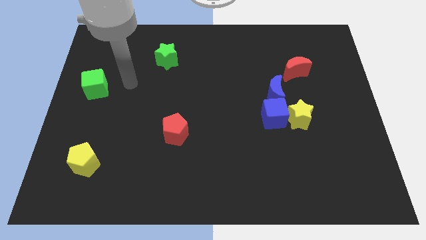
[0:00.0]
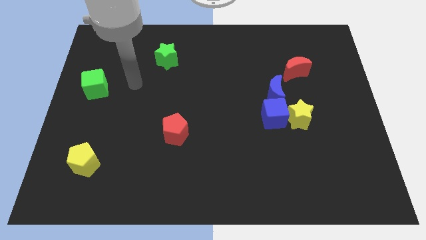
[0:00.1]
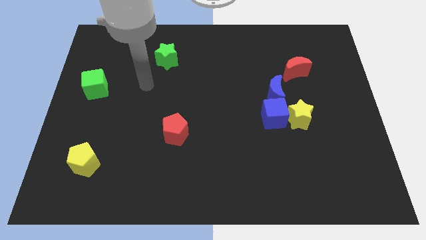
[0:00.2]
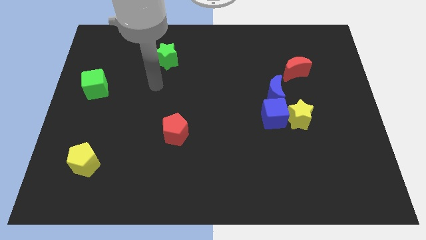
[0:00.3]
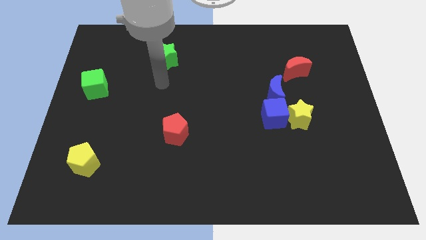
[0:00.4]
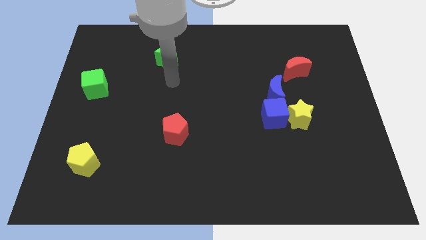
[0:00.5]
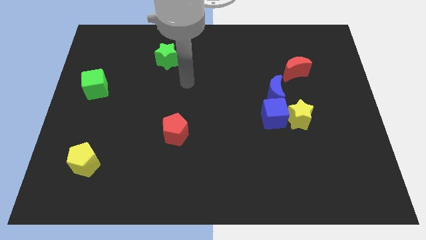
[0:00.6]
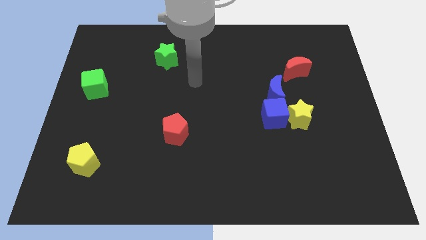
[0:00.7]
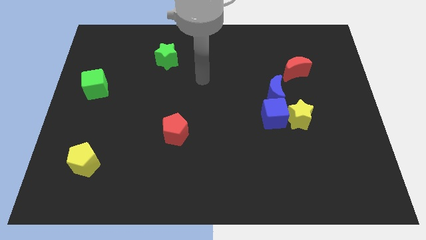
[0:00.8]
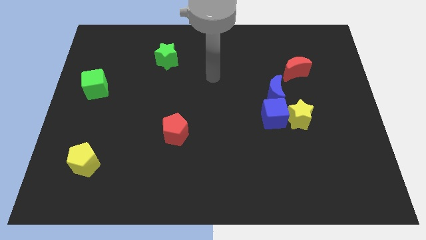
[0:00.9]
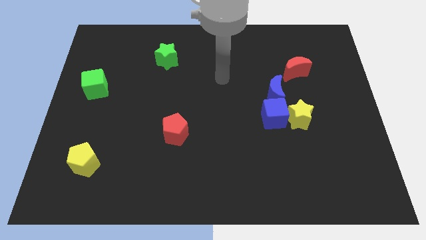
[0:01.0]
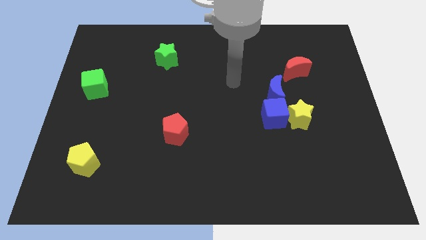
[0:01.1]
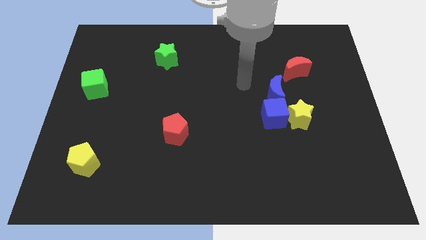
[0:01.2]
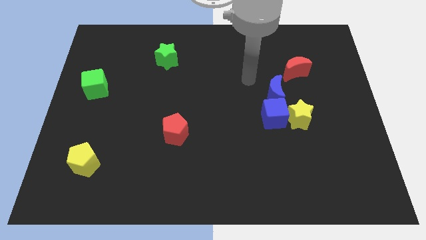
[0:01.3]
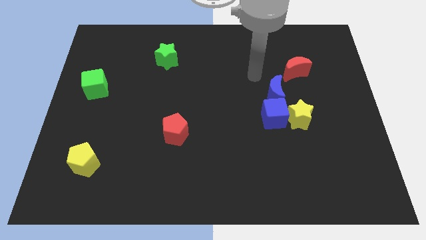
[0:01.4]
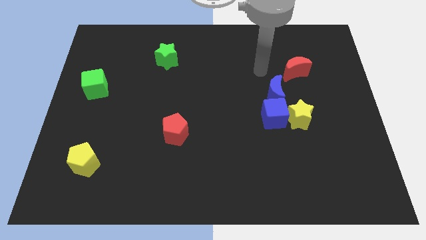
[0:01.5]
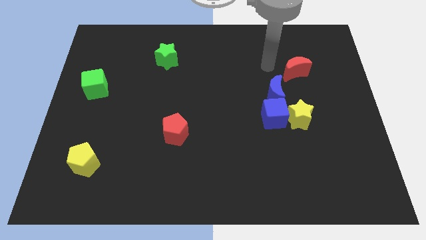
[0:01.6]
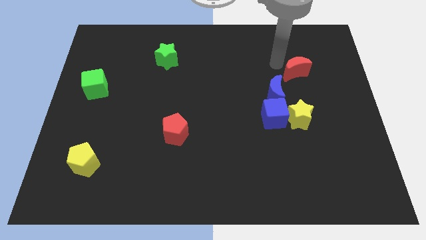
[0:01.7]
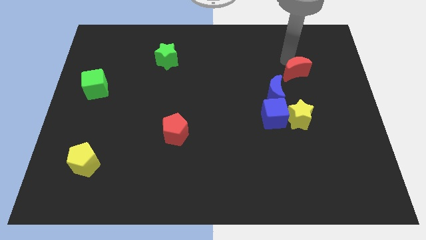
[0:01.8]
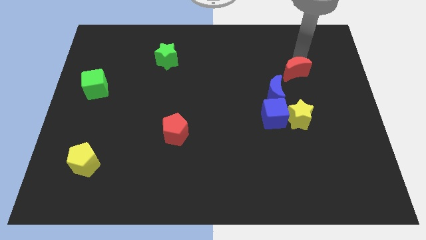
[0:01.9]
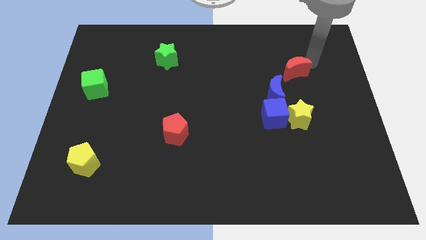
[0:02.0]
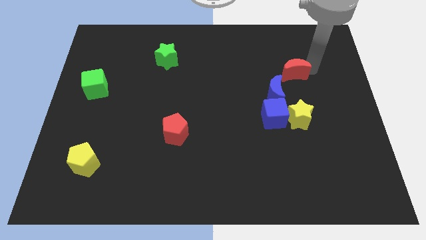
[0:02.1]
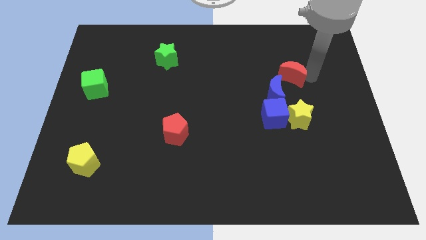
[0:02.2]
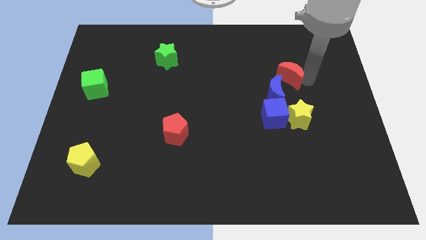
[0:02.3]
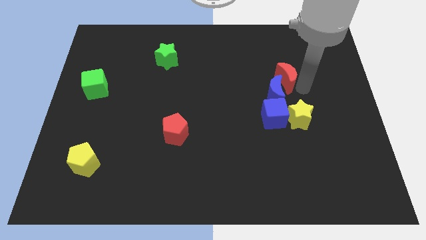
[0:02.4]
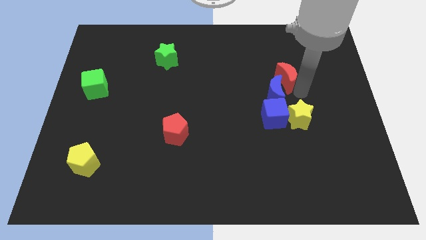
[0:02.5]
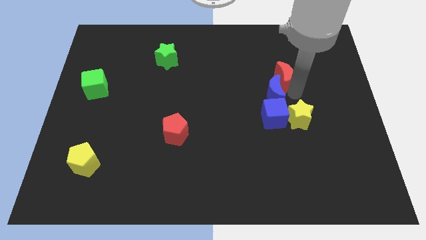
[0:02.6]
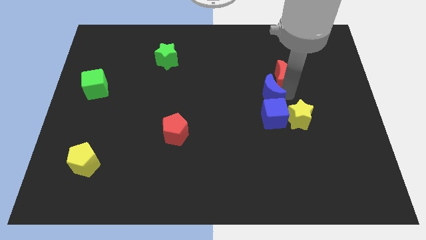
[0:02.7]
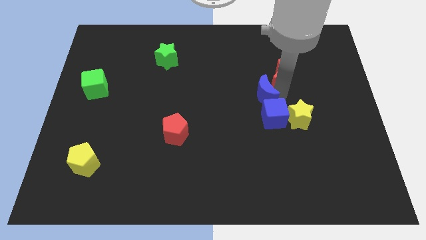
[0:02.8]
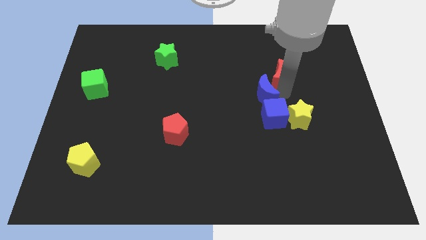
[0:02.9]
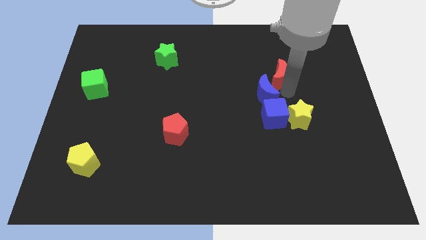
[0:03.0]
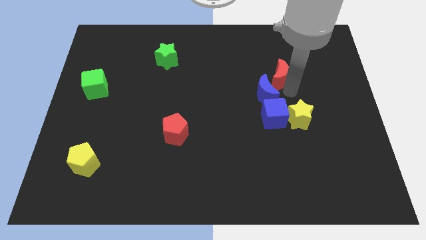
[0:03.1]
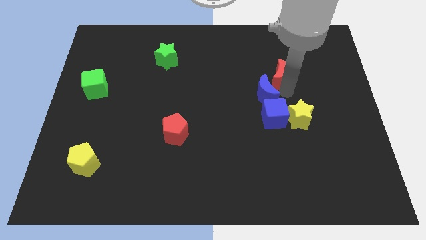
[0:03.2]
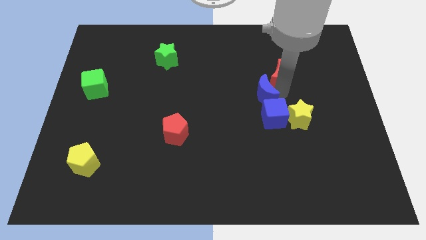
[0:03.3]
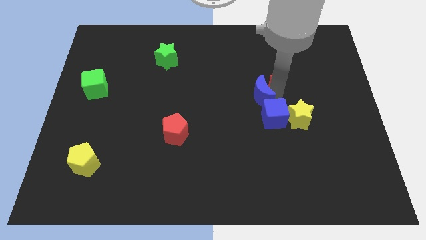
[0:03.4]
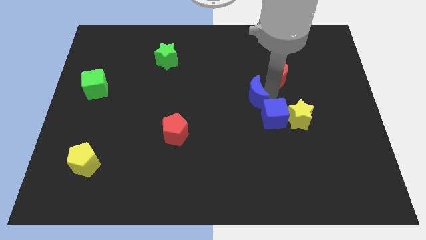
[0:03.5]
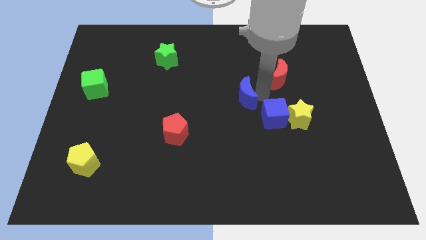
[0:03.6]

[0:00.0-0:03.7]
slightly slide the blue moon to the left

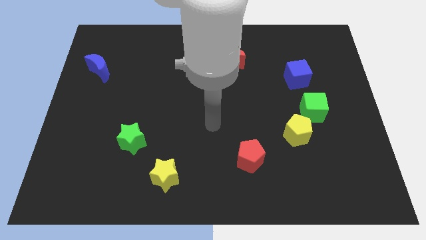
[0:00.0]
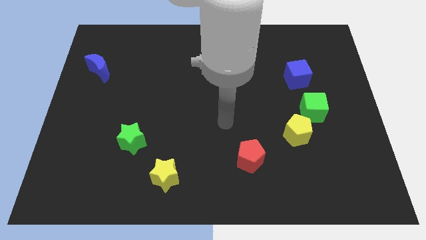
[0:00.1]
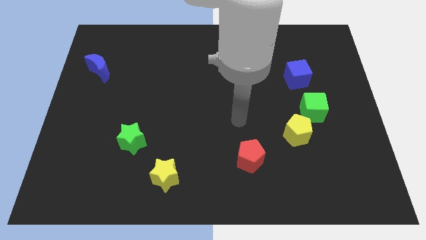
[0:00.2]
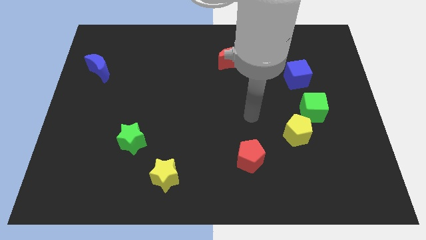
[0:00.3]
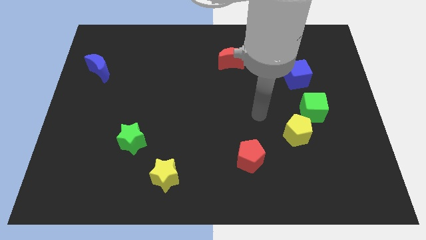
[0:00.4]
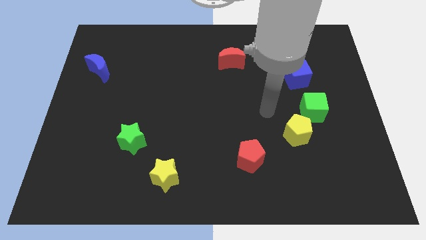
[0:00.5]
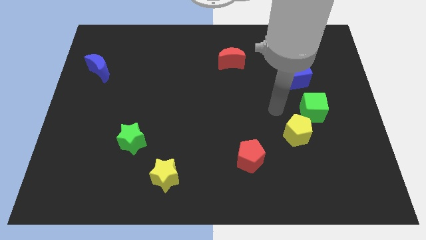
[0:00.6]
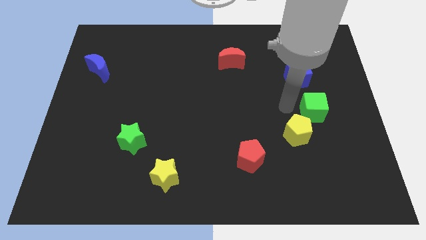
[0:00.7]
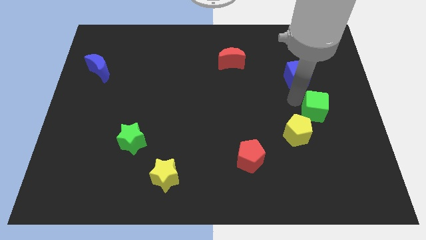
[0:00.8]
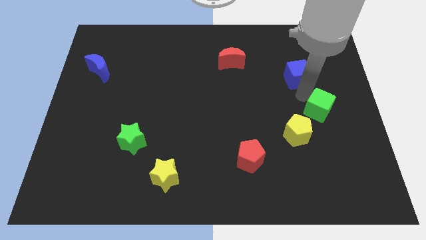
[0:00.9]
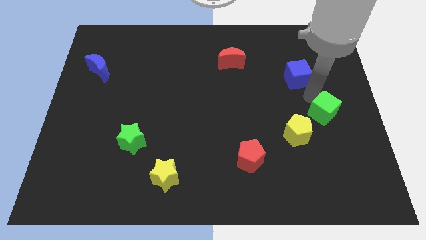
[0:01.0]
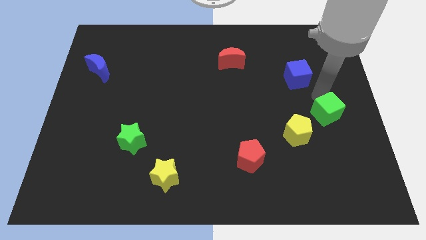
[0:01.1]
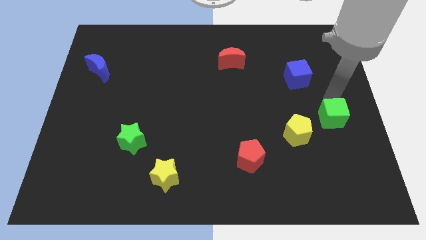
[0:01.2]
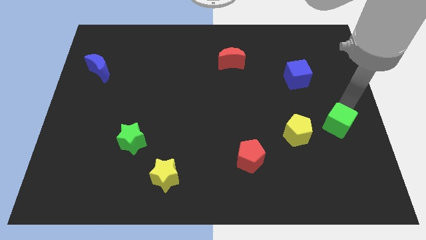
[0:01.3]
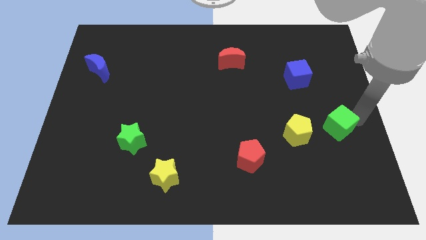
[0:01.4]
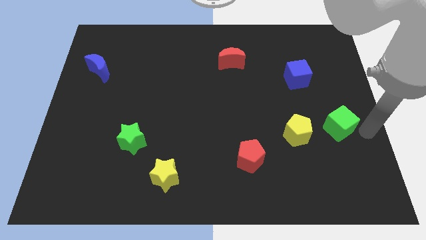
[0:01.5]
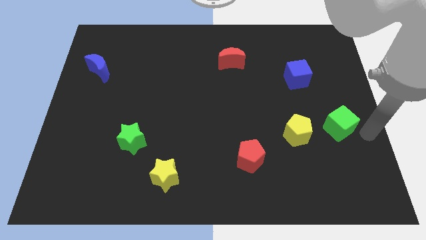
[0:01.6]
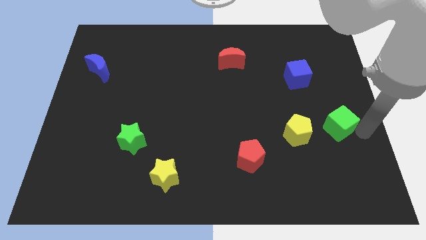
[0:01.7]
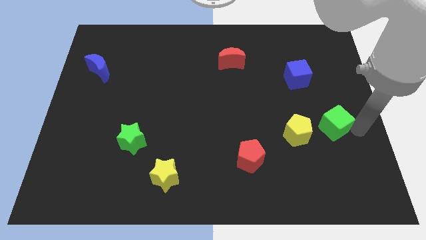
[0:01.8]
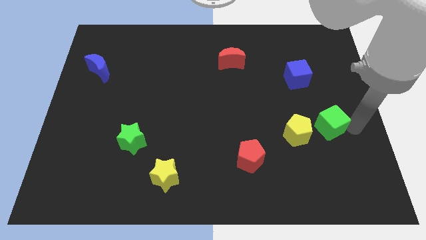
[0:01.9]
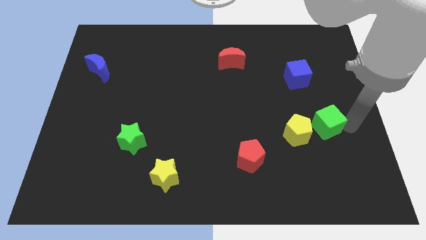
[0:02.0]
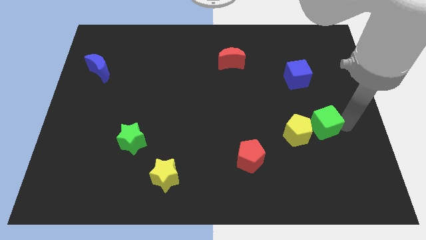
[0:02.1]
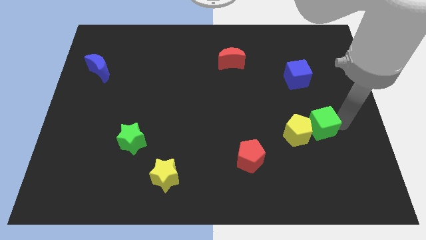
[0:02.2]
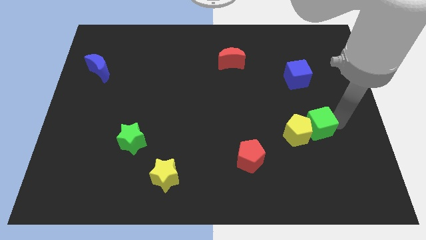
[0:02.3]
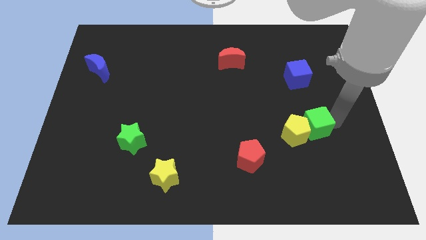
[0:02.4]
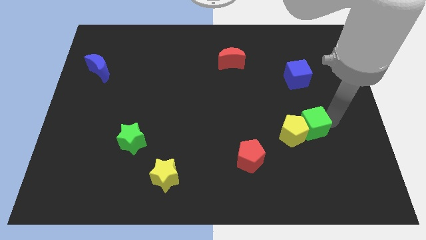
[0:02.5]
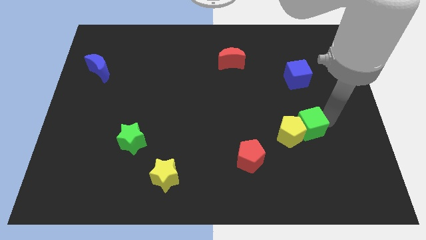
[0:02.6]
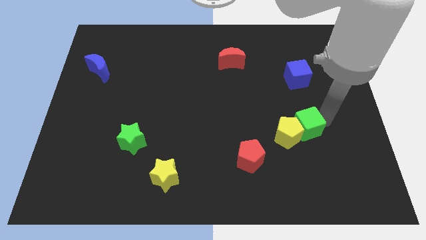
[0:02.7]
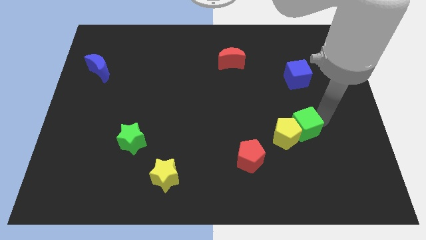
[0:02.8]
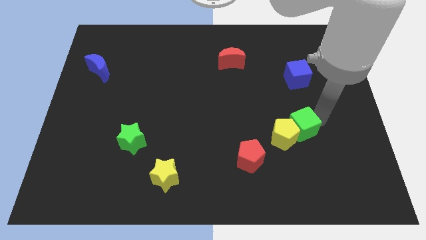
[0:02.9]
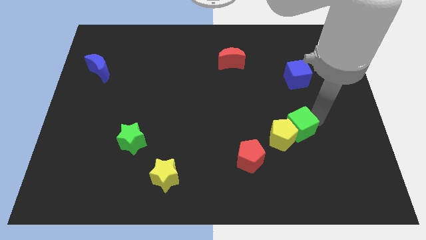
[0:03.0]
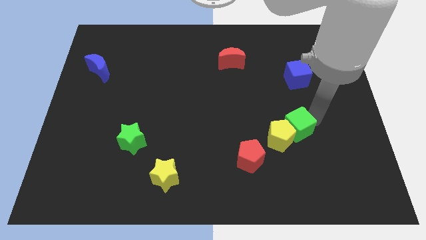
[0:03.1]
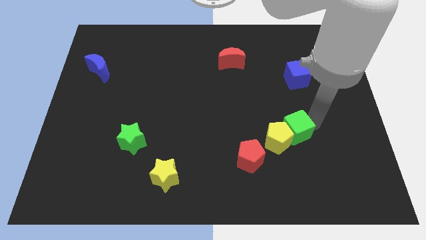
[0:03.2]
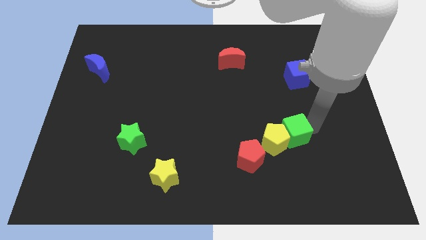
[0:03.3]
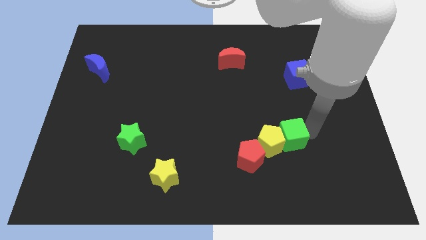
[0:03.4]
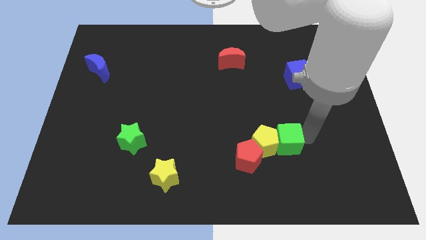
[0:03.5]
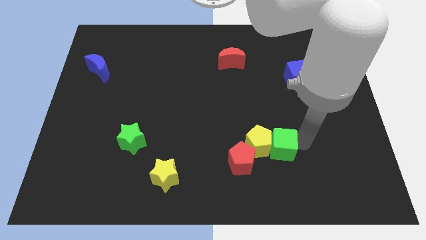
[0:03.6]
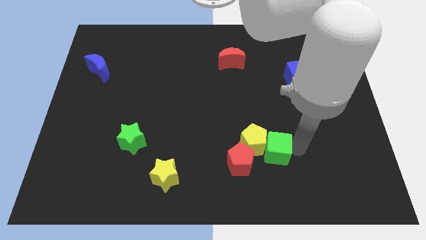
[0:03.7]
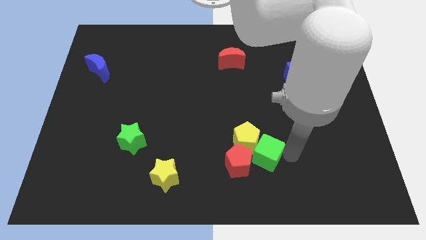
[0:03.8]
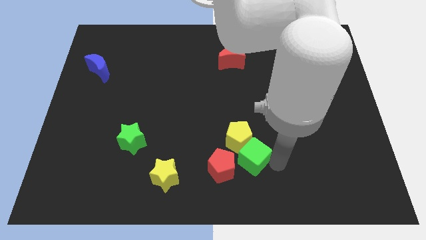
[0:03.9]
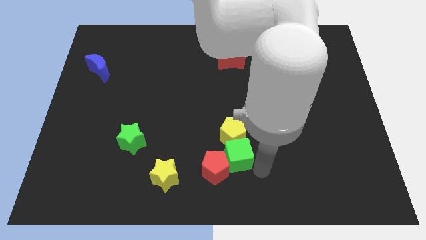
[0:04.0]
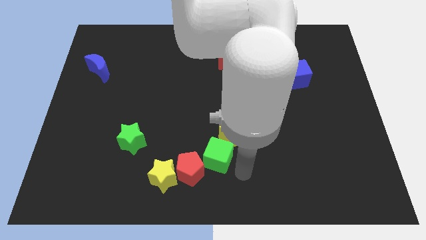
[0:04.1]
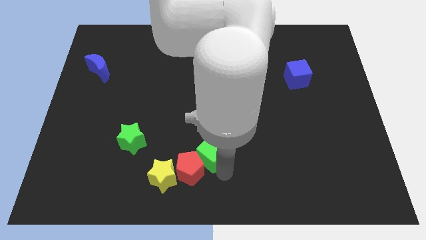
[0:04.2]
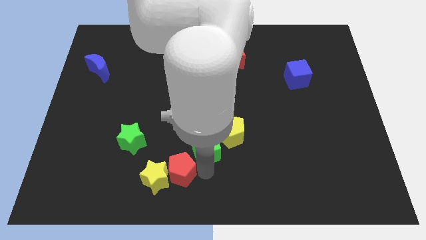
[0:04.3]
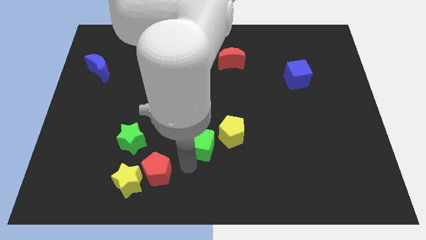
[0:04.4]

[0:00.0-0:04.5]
move the green cube left
